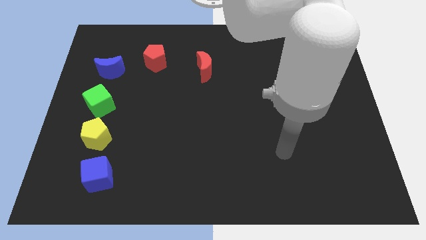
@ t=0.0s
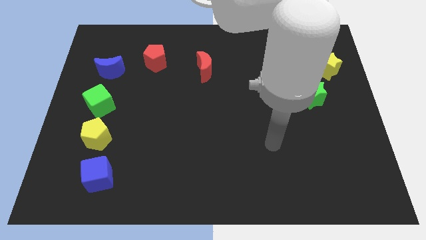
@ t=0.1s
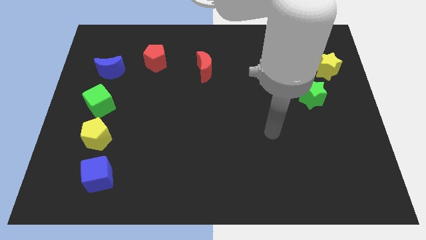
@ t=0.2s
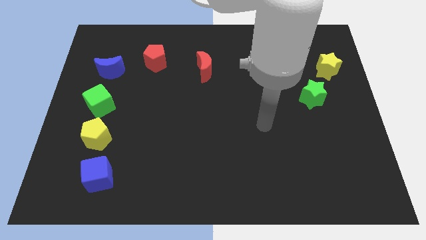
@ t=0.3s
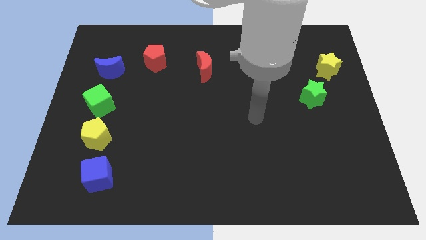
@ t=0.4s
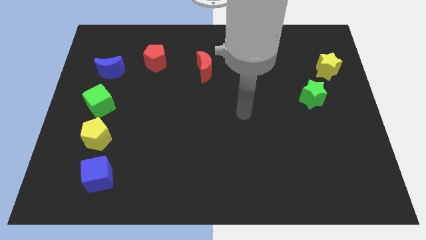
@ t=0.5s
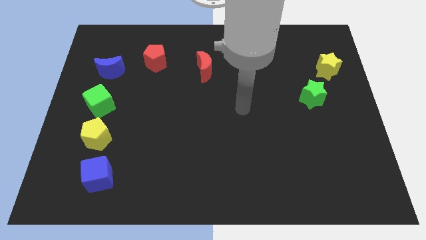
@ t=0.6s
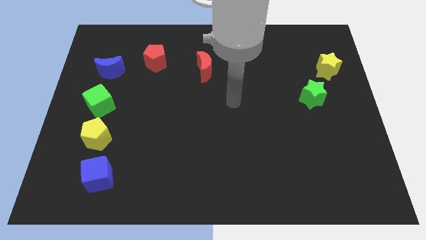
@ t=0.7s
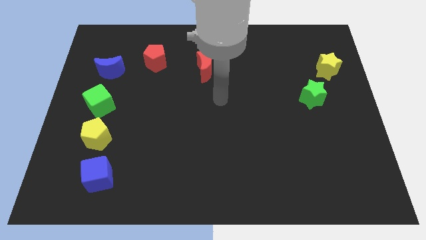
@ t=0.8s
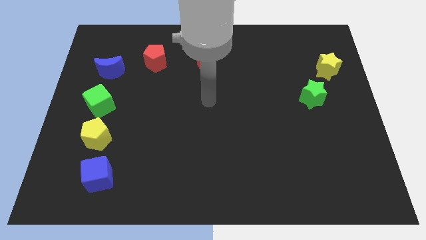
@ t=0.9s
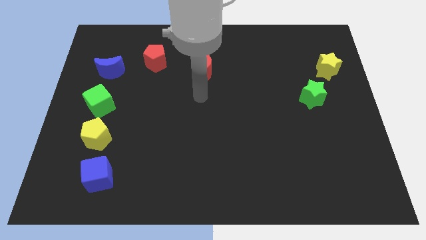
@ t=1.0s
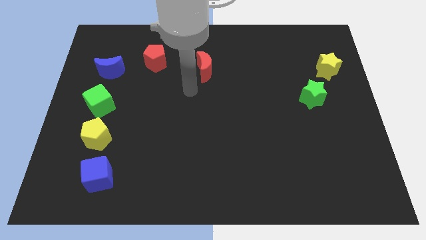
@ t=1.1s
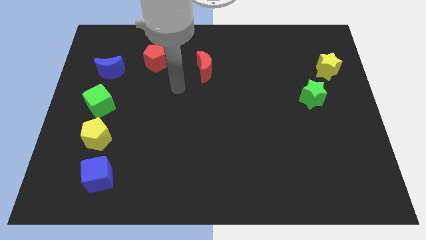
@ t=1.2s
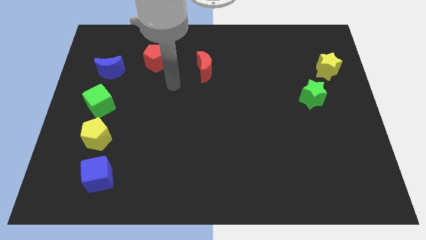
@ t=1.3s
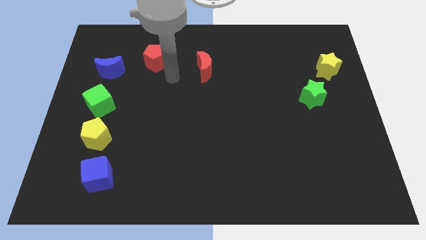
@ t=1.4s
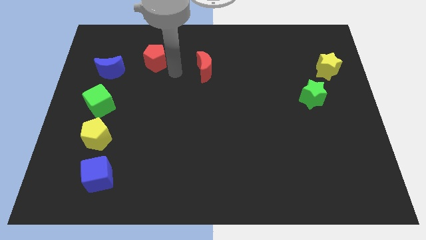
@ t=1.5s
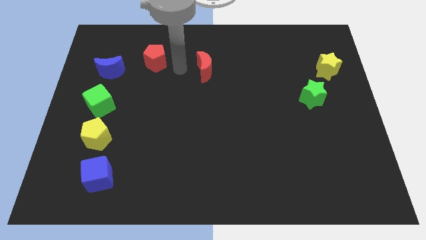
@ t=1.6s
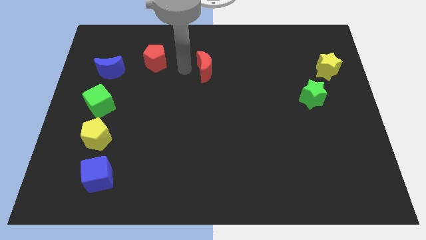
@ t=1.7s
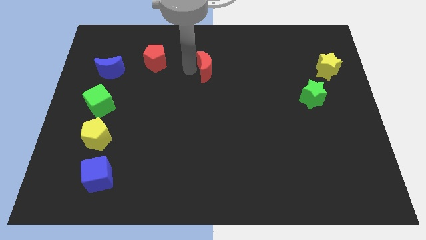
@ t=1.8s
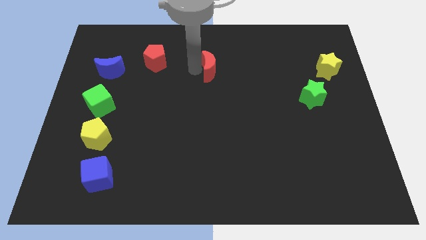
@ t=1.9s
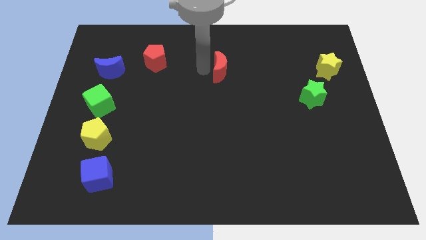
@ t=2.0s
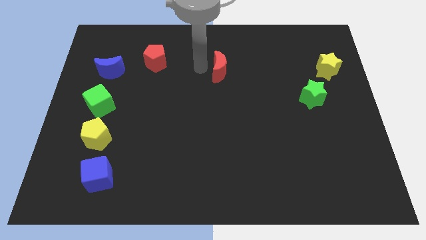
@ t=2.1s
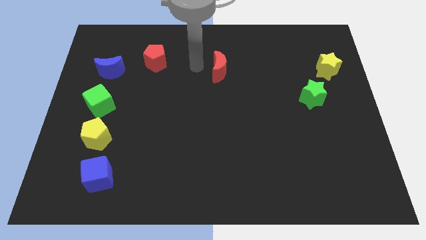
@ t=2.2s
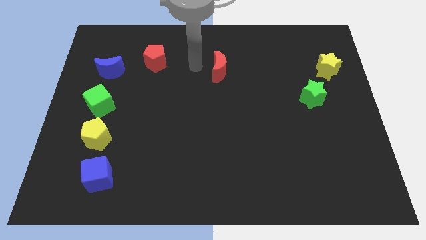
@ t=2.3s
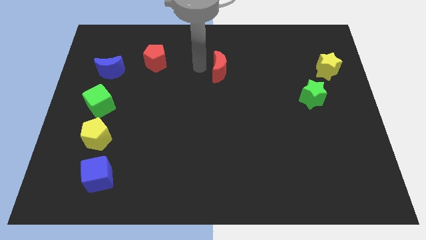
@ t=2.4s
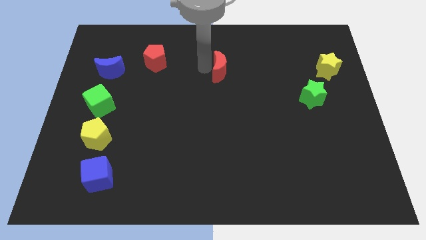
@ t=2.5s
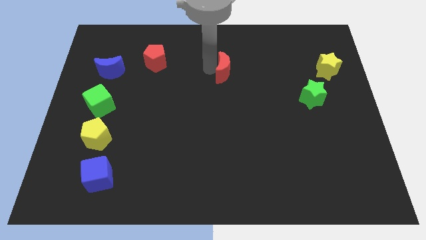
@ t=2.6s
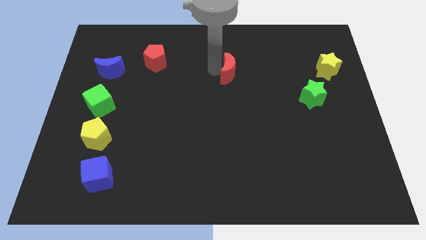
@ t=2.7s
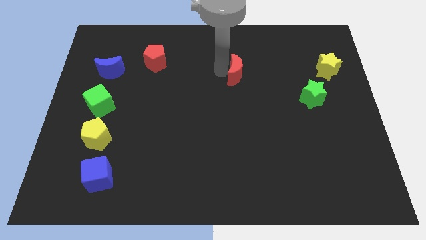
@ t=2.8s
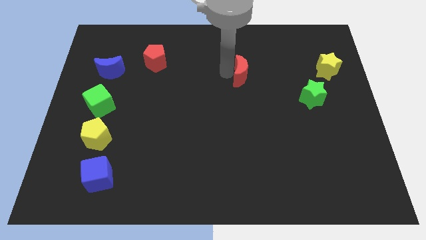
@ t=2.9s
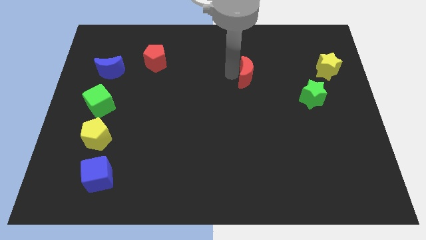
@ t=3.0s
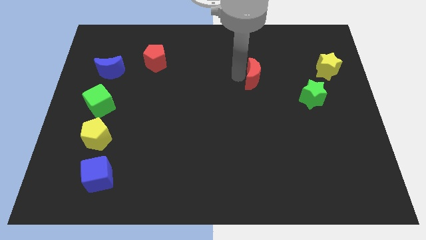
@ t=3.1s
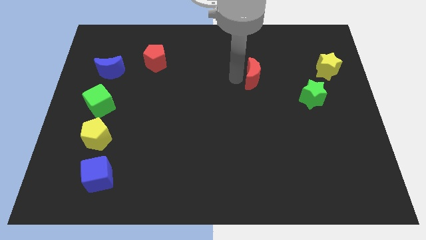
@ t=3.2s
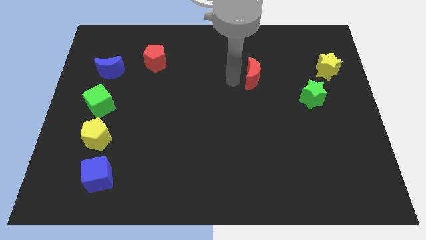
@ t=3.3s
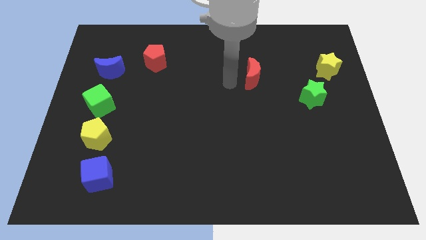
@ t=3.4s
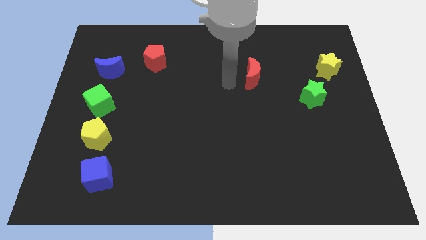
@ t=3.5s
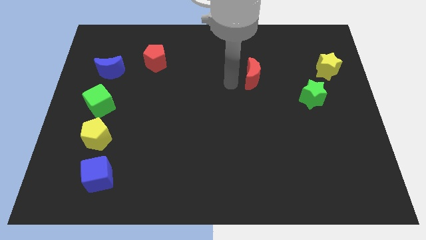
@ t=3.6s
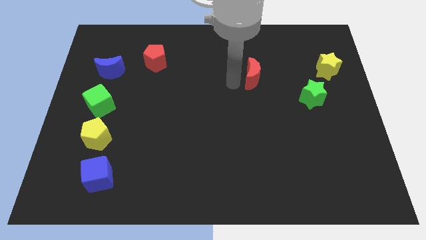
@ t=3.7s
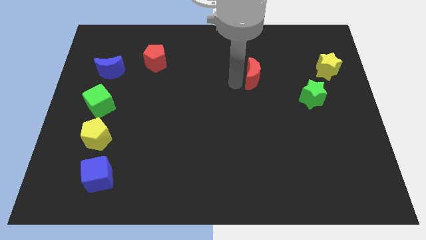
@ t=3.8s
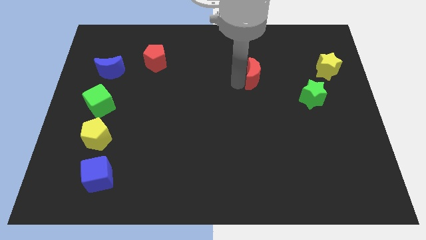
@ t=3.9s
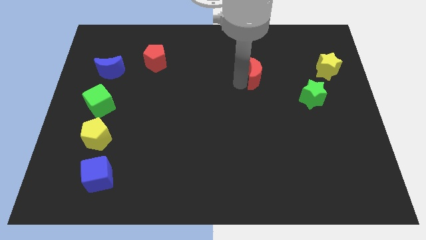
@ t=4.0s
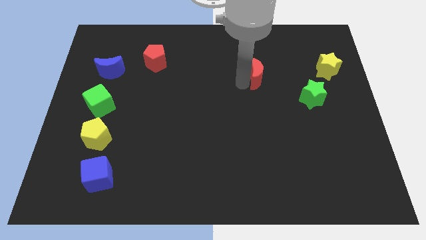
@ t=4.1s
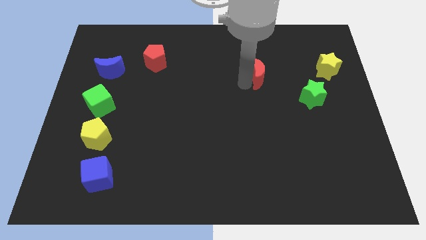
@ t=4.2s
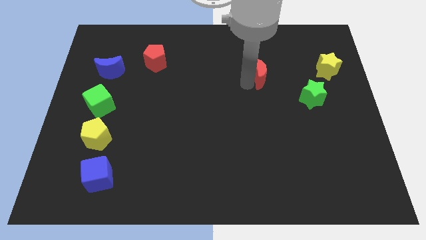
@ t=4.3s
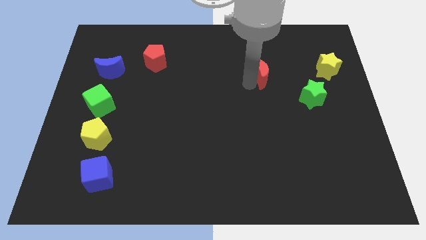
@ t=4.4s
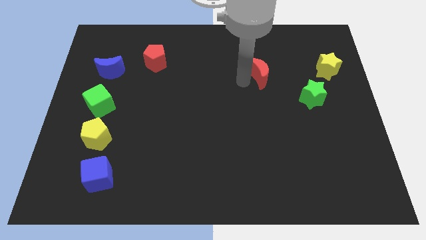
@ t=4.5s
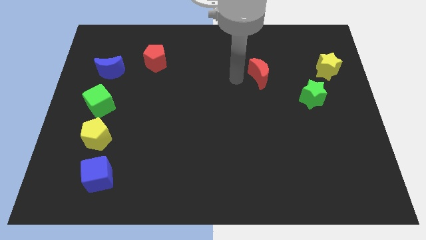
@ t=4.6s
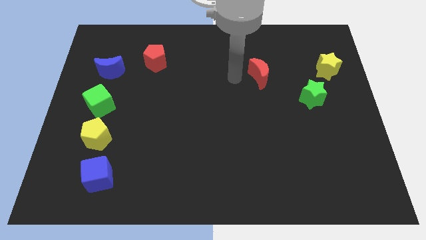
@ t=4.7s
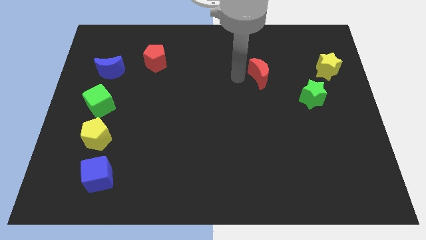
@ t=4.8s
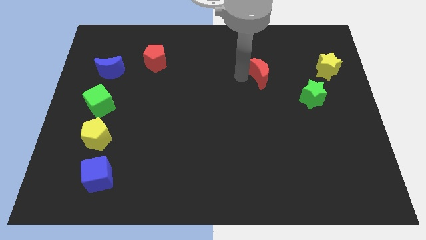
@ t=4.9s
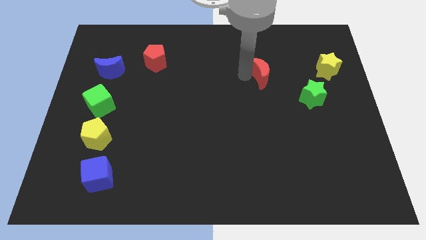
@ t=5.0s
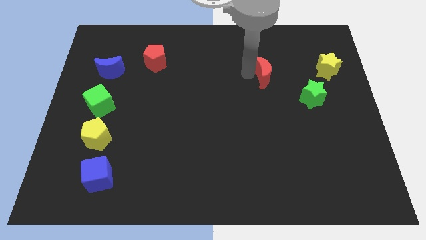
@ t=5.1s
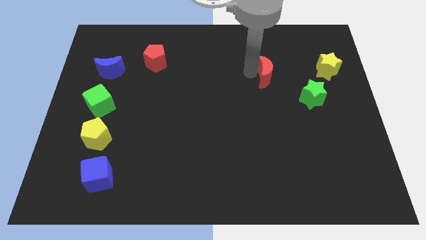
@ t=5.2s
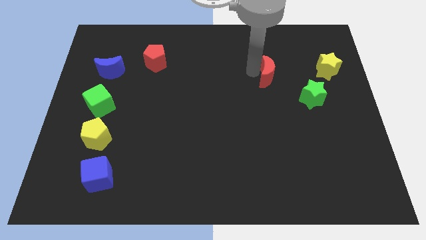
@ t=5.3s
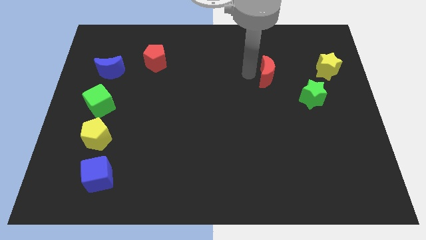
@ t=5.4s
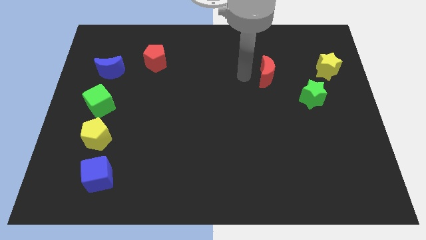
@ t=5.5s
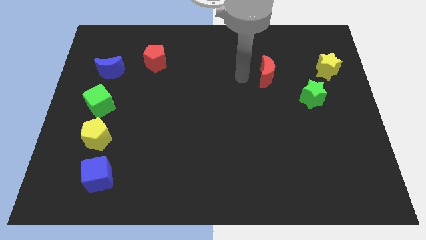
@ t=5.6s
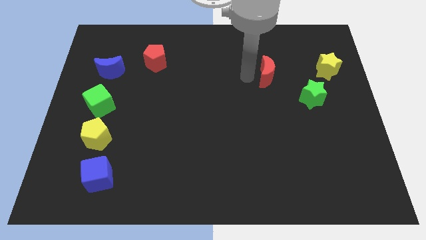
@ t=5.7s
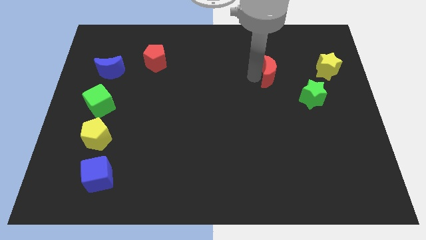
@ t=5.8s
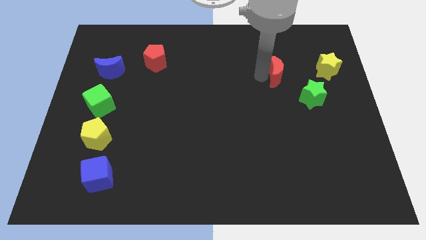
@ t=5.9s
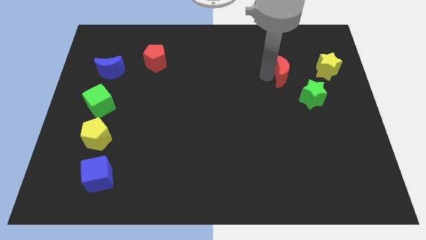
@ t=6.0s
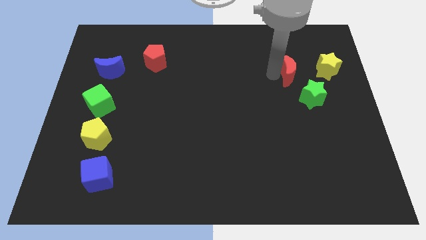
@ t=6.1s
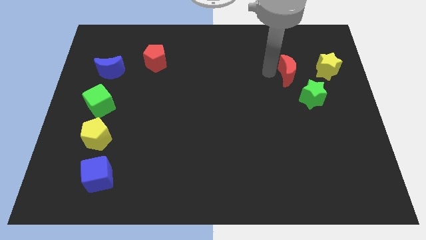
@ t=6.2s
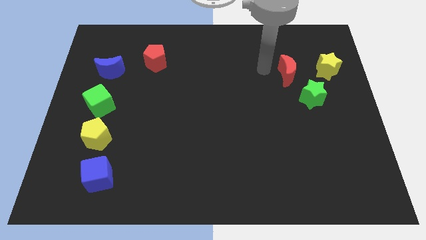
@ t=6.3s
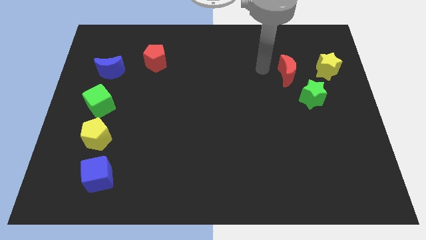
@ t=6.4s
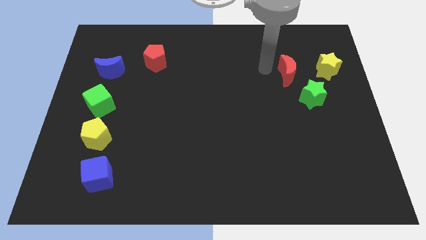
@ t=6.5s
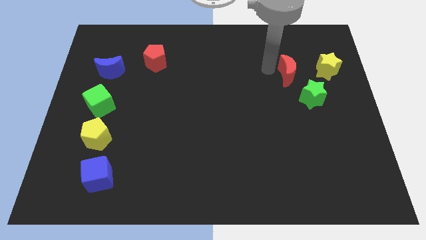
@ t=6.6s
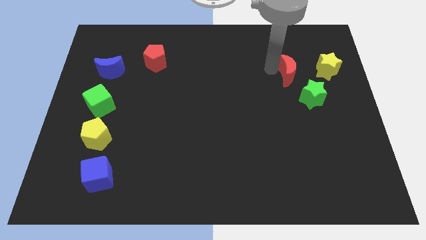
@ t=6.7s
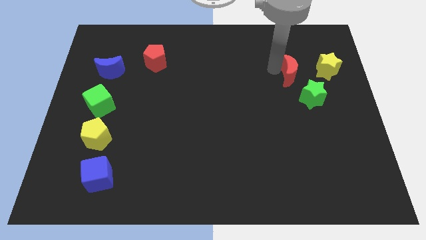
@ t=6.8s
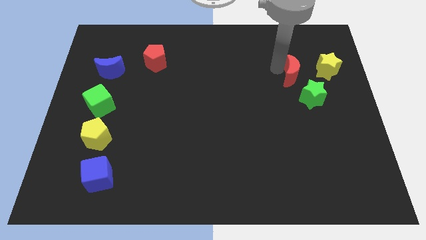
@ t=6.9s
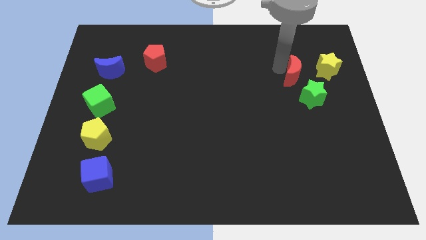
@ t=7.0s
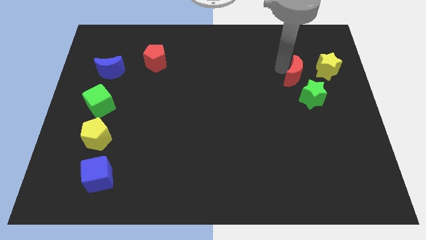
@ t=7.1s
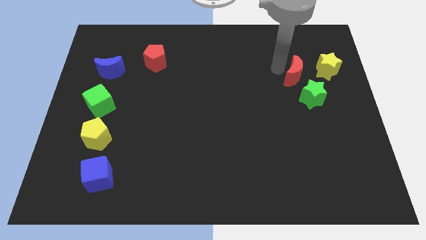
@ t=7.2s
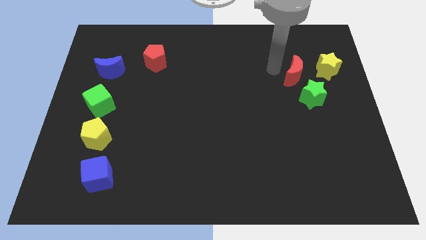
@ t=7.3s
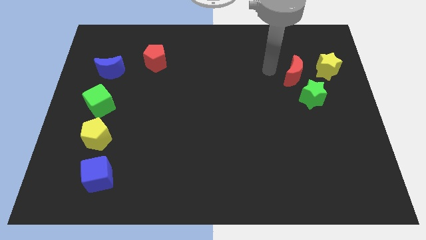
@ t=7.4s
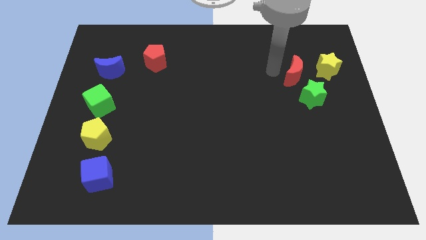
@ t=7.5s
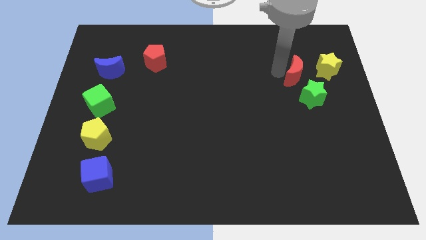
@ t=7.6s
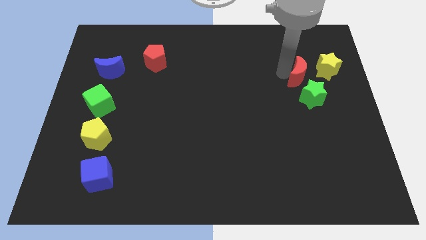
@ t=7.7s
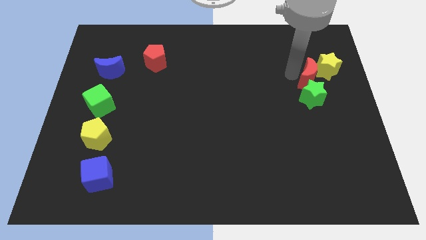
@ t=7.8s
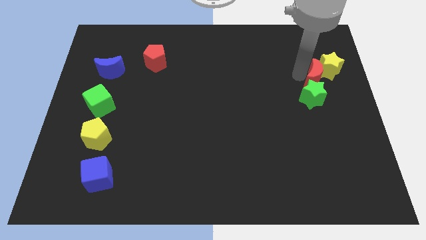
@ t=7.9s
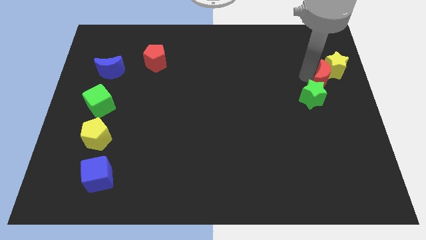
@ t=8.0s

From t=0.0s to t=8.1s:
push the red moon to the right side of the board
